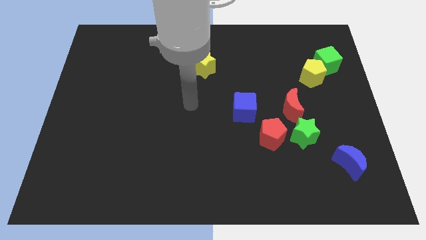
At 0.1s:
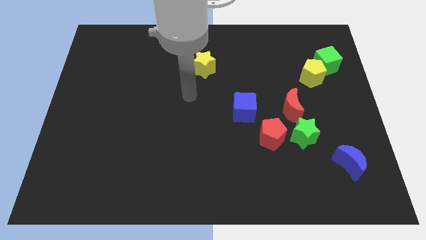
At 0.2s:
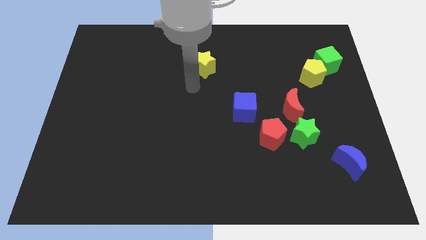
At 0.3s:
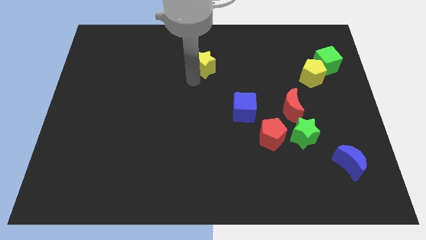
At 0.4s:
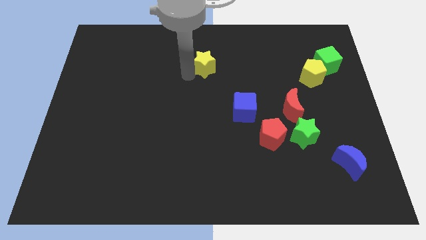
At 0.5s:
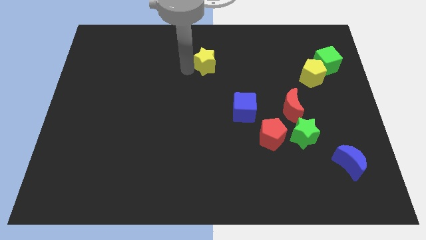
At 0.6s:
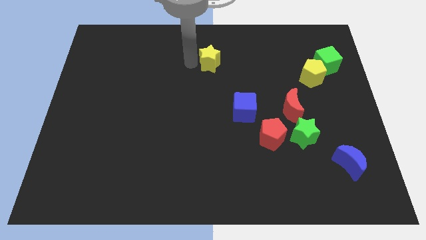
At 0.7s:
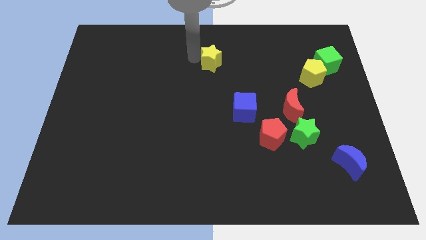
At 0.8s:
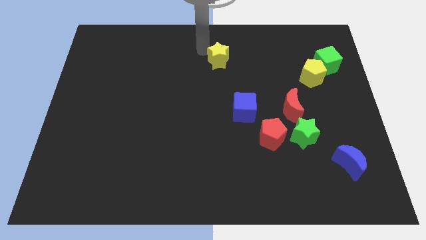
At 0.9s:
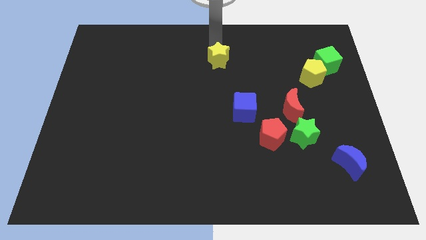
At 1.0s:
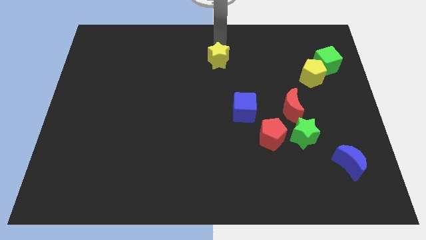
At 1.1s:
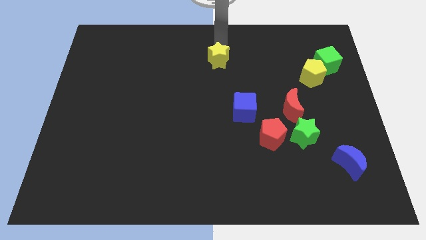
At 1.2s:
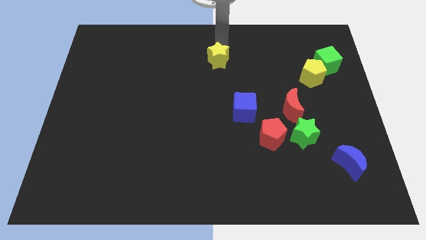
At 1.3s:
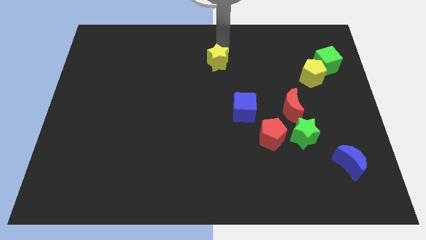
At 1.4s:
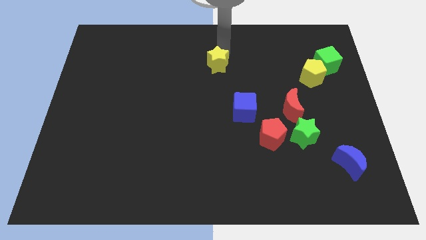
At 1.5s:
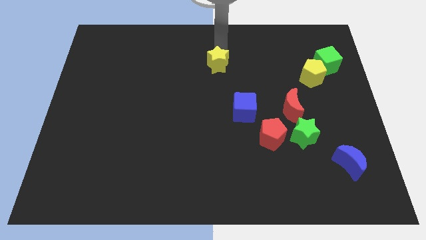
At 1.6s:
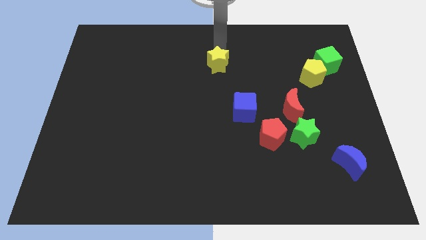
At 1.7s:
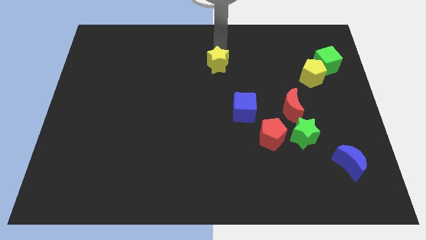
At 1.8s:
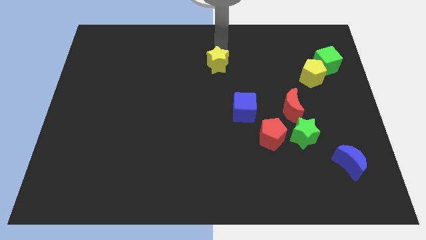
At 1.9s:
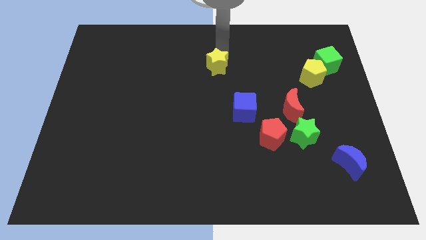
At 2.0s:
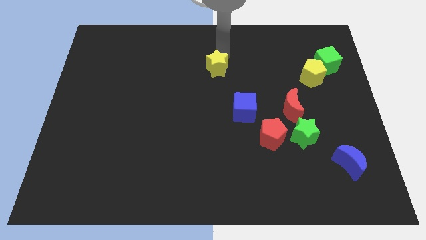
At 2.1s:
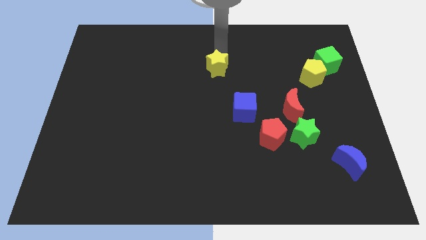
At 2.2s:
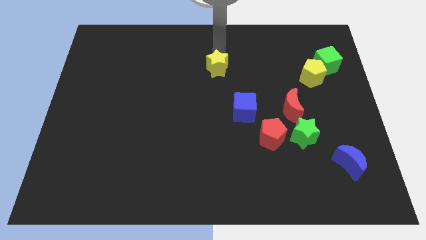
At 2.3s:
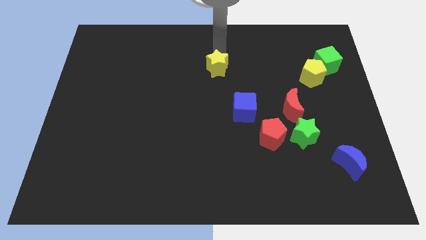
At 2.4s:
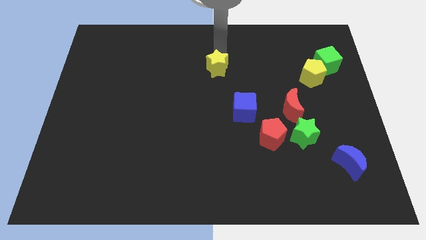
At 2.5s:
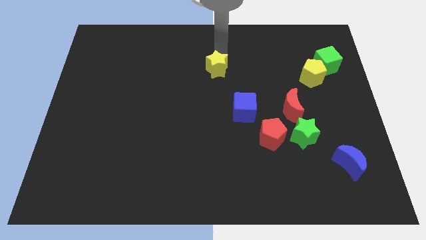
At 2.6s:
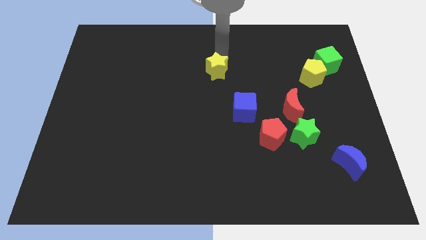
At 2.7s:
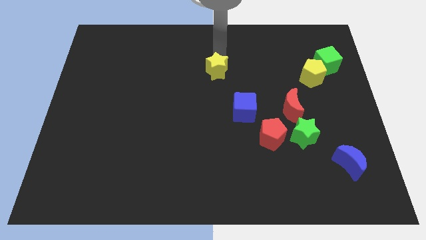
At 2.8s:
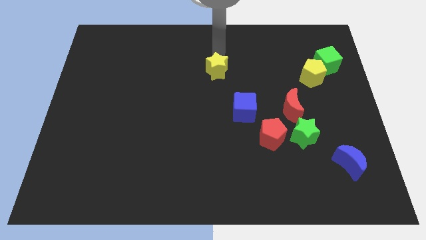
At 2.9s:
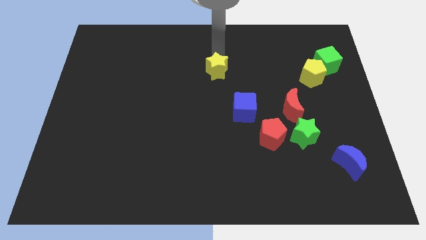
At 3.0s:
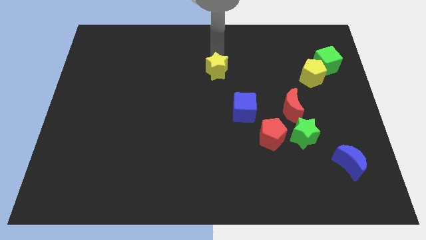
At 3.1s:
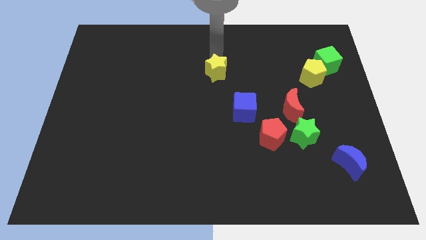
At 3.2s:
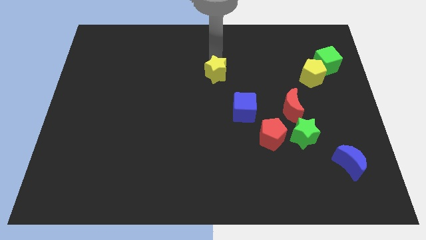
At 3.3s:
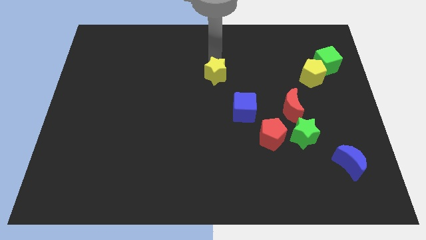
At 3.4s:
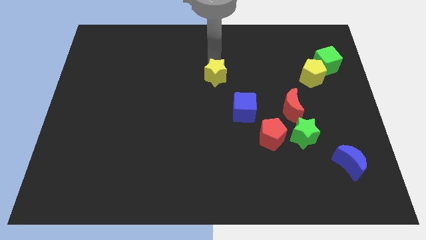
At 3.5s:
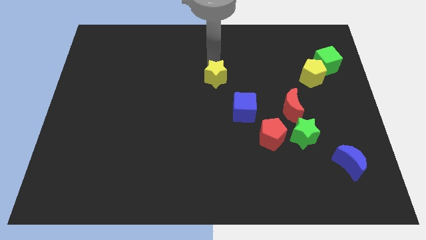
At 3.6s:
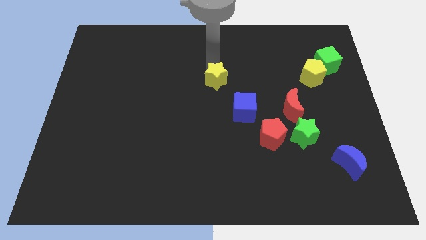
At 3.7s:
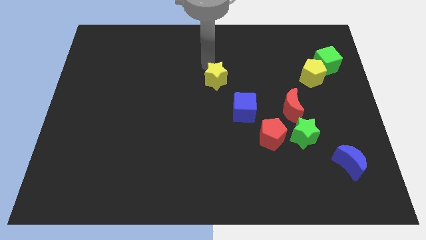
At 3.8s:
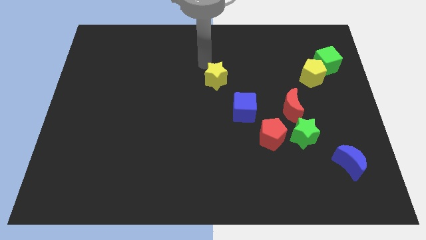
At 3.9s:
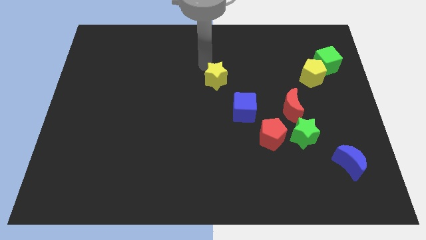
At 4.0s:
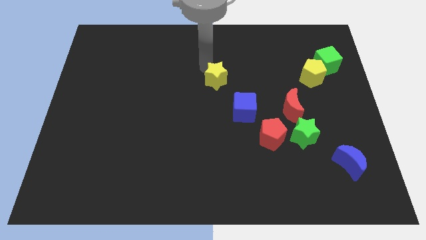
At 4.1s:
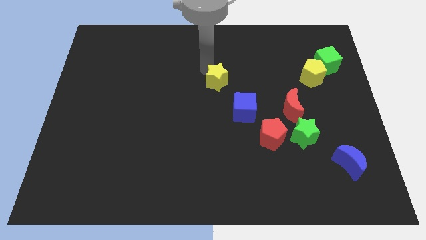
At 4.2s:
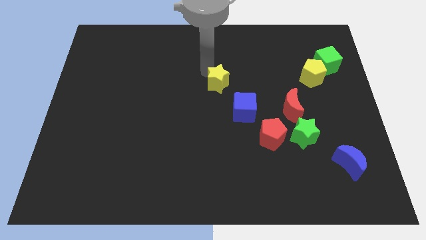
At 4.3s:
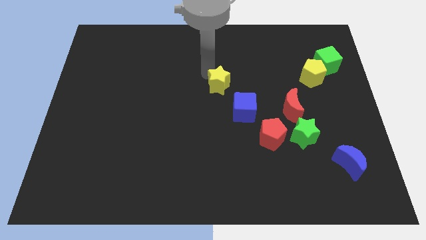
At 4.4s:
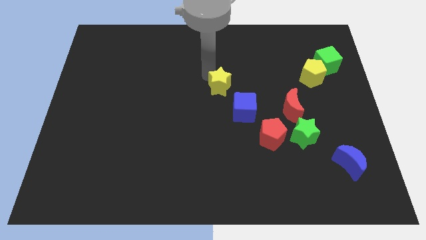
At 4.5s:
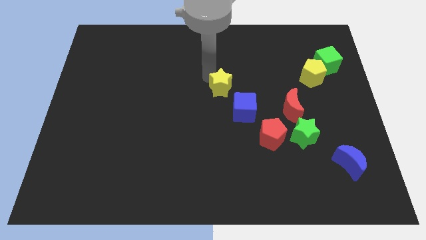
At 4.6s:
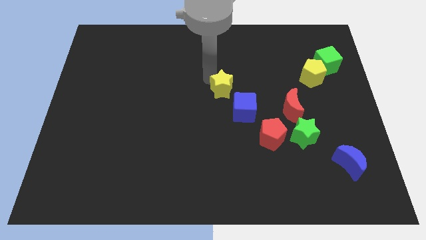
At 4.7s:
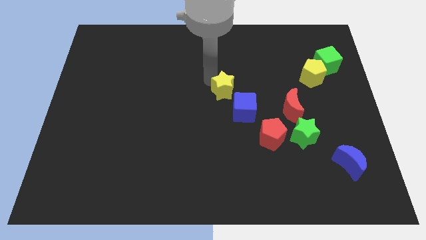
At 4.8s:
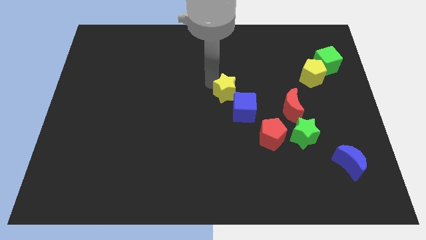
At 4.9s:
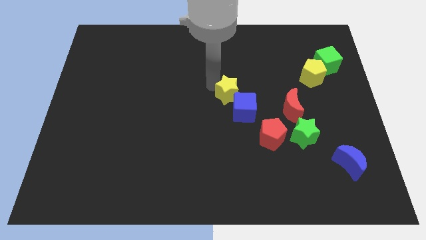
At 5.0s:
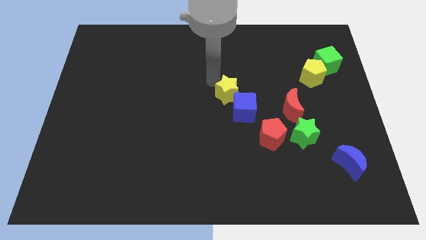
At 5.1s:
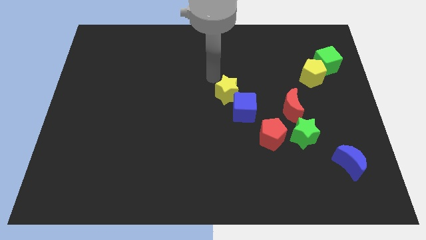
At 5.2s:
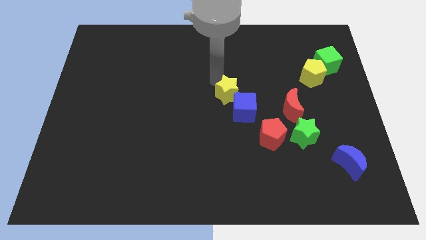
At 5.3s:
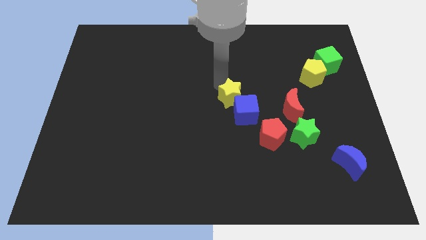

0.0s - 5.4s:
slide the yellow star to the blue cube

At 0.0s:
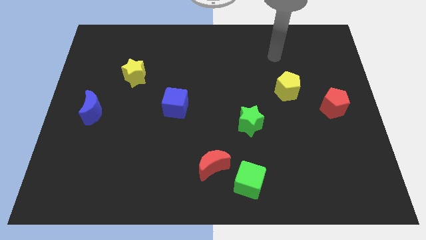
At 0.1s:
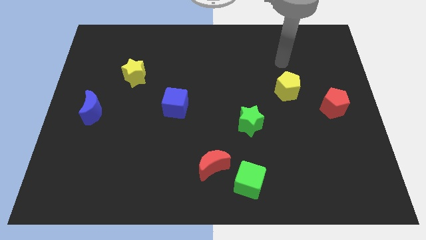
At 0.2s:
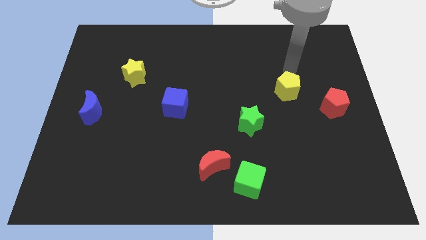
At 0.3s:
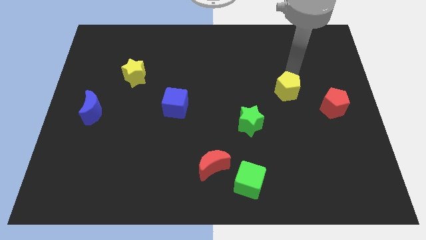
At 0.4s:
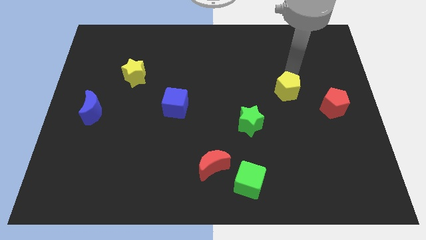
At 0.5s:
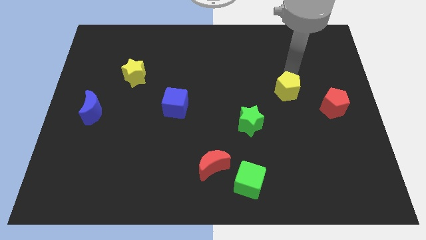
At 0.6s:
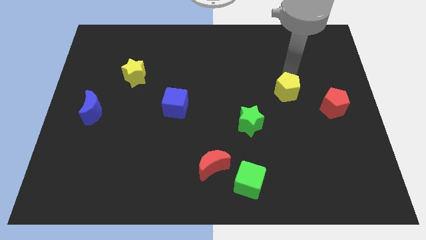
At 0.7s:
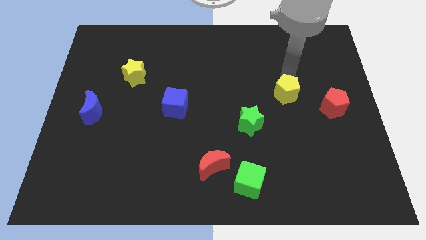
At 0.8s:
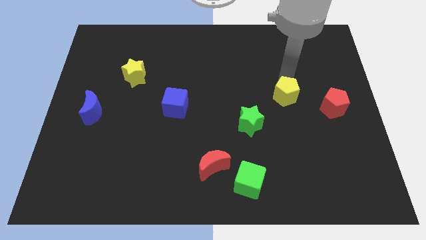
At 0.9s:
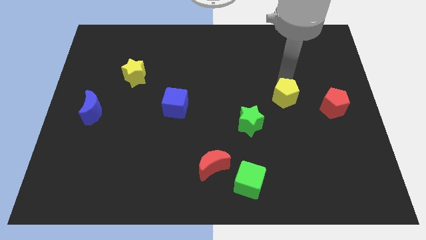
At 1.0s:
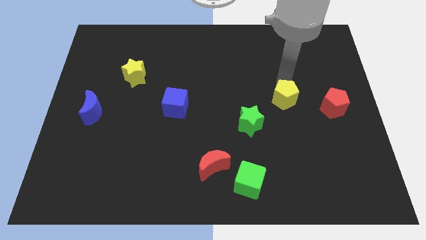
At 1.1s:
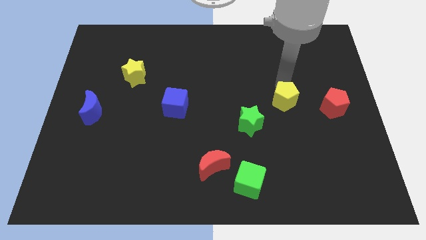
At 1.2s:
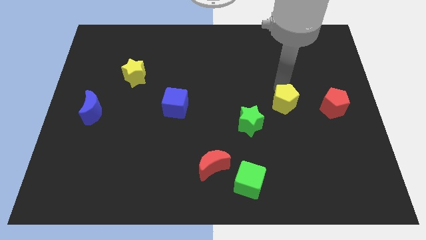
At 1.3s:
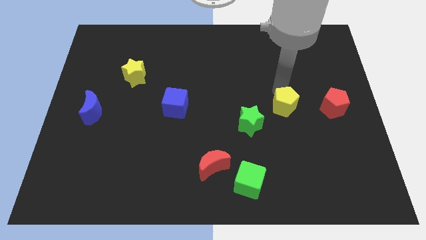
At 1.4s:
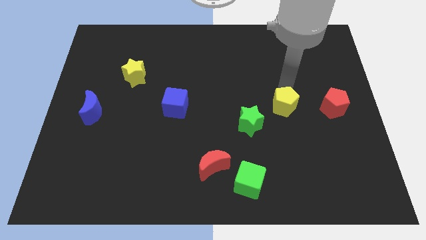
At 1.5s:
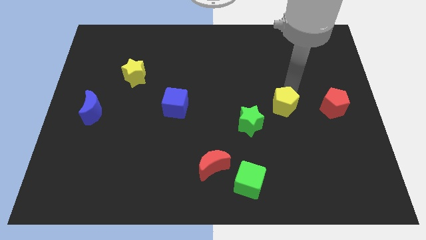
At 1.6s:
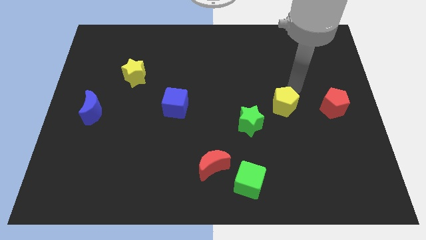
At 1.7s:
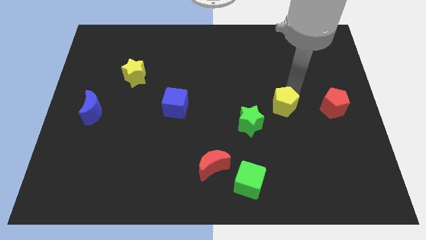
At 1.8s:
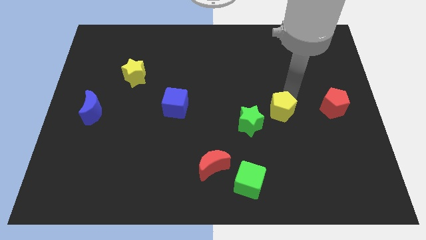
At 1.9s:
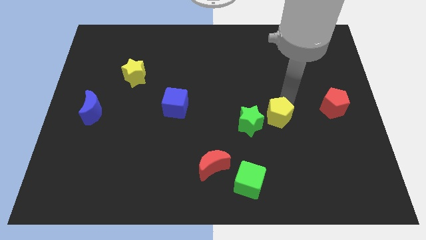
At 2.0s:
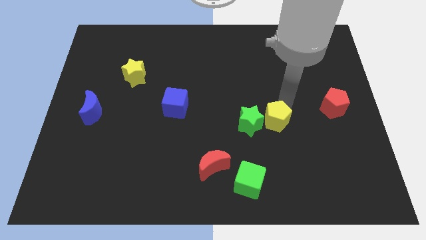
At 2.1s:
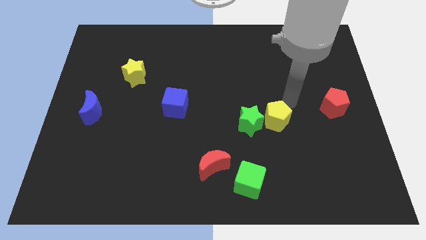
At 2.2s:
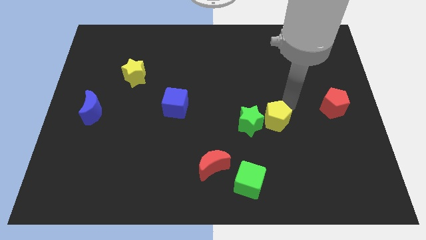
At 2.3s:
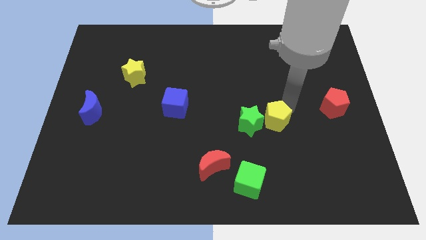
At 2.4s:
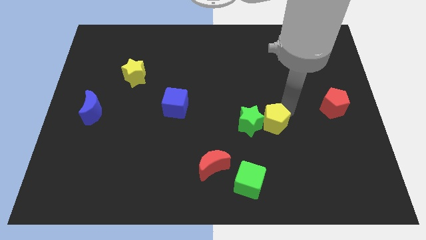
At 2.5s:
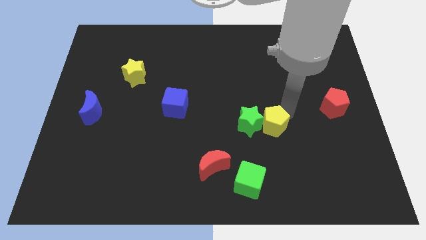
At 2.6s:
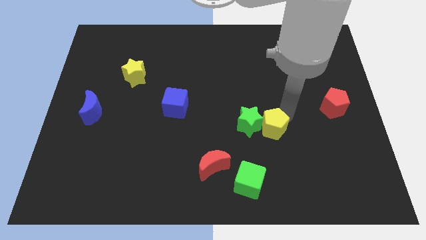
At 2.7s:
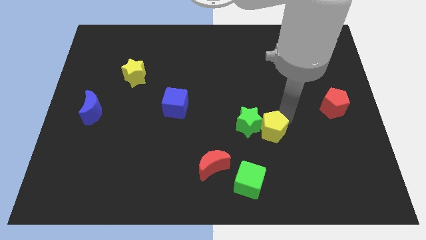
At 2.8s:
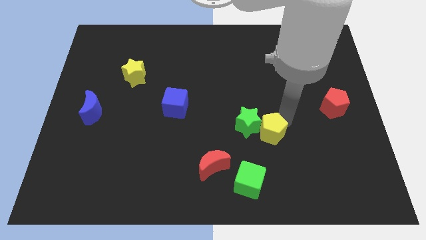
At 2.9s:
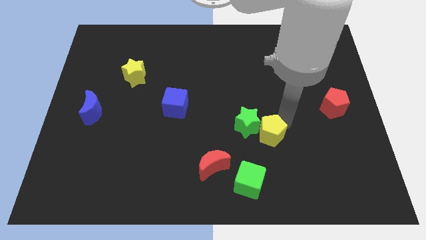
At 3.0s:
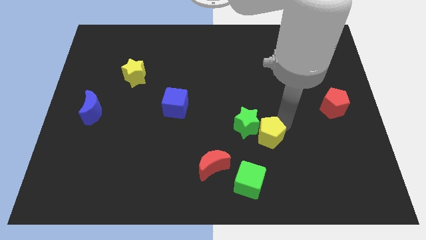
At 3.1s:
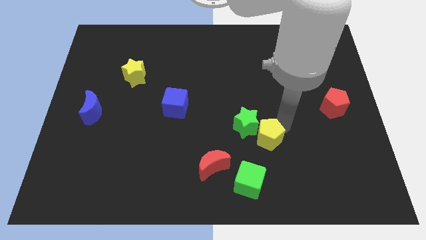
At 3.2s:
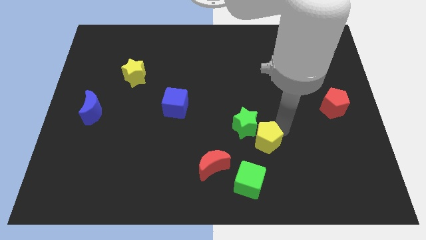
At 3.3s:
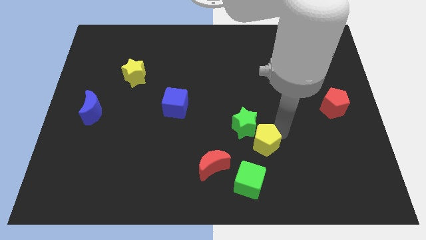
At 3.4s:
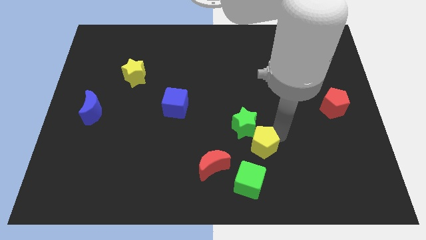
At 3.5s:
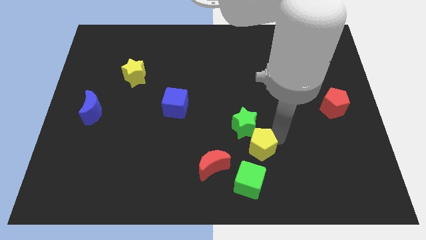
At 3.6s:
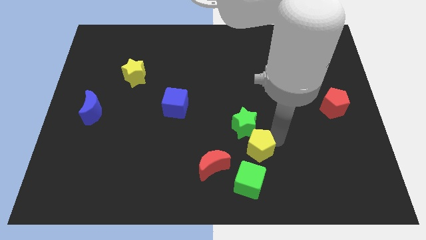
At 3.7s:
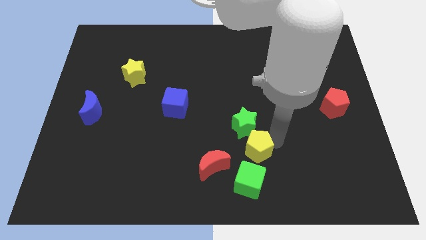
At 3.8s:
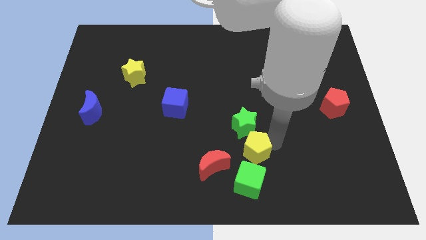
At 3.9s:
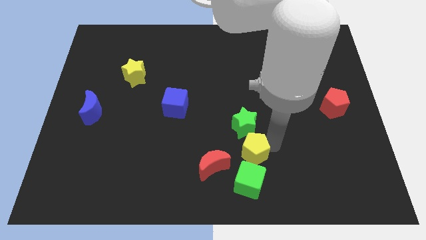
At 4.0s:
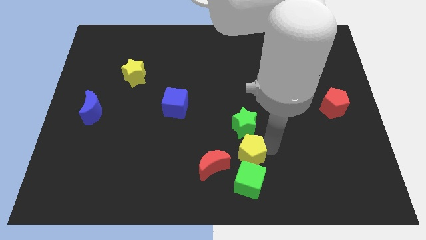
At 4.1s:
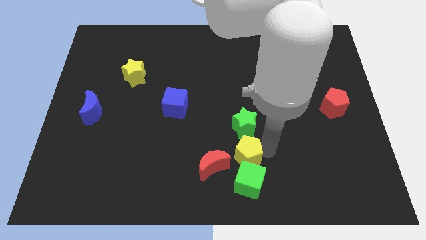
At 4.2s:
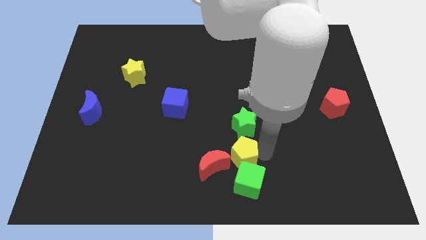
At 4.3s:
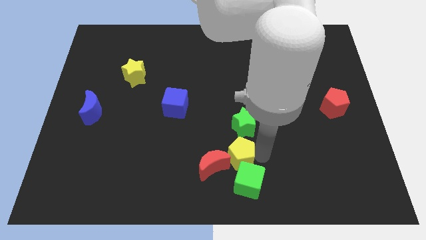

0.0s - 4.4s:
put the yellow pentagon close to the red moon
